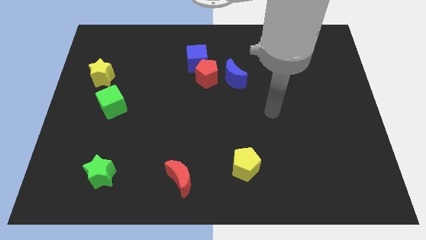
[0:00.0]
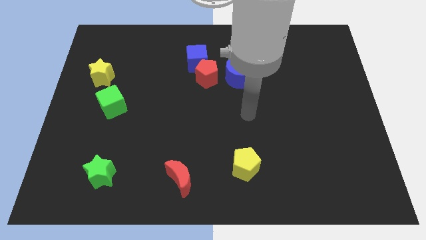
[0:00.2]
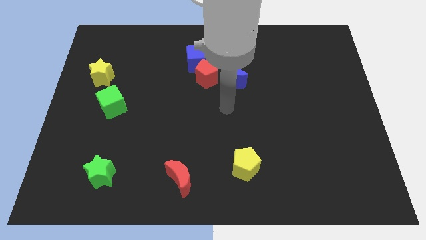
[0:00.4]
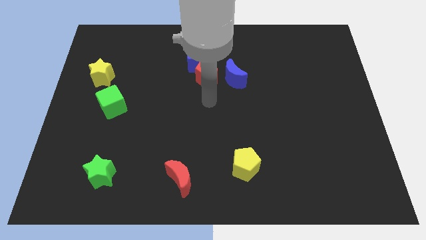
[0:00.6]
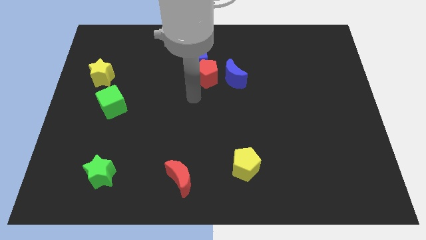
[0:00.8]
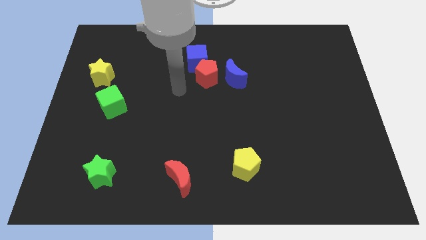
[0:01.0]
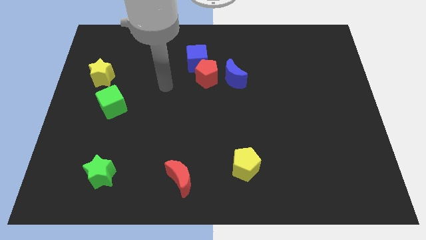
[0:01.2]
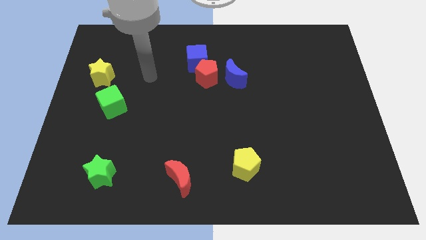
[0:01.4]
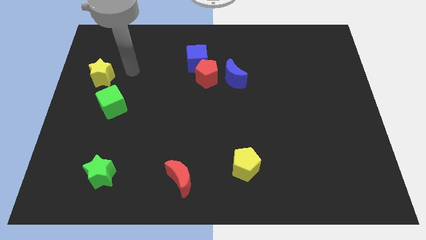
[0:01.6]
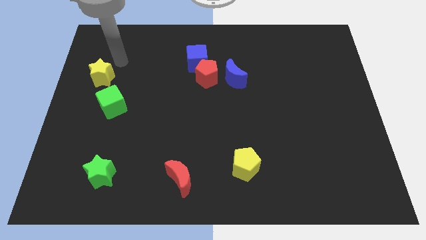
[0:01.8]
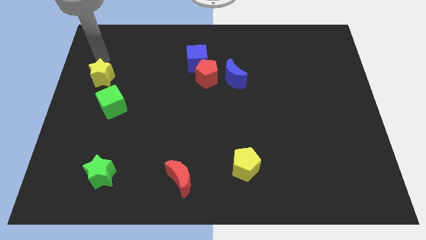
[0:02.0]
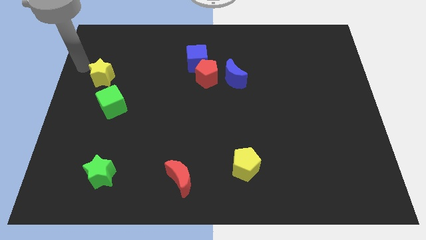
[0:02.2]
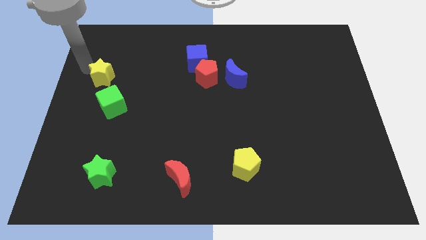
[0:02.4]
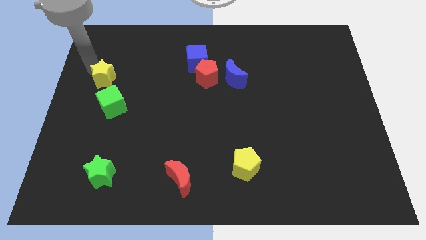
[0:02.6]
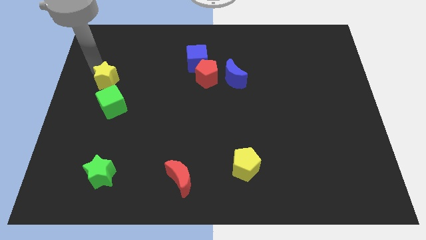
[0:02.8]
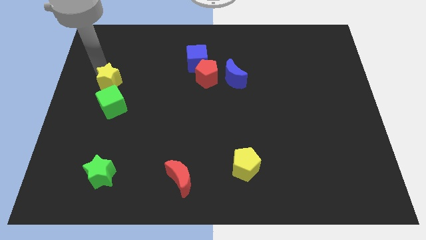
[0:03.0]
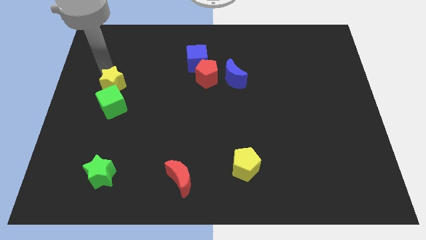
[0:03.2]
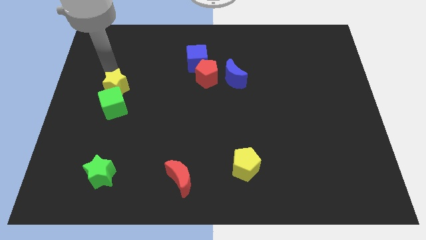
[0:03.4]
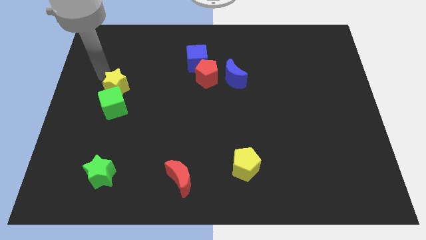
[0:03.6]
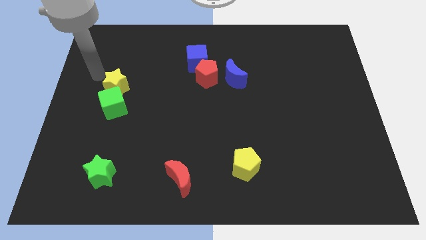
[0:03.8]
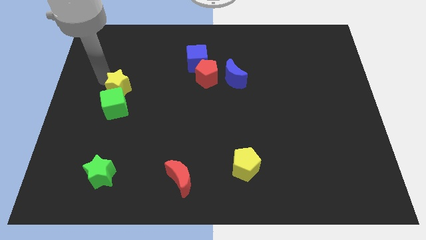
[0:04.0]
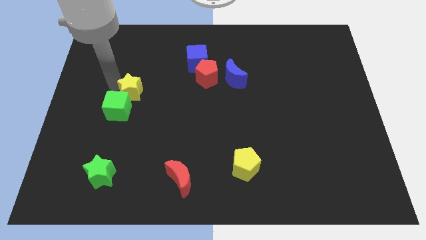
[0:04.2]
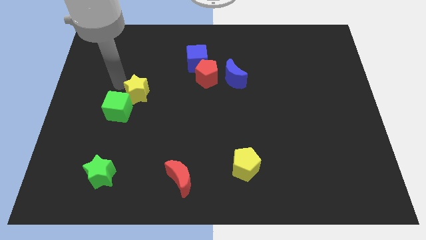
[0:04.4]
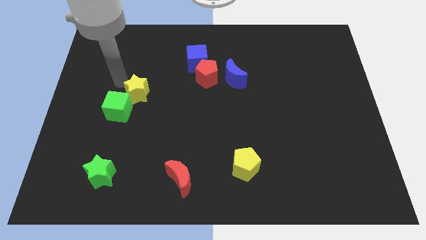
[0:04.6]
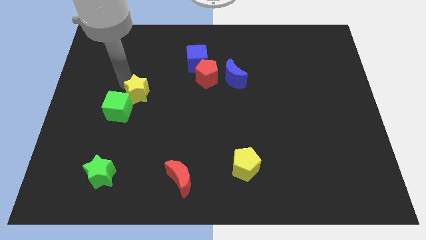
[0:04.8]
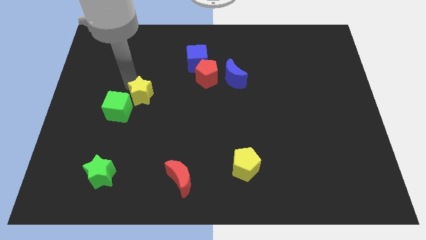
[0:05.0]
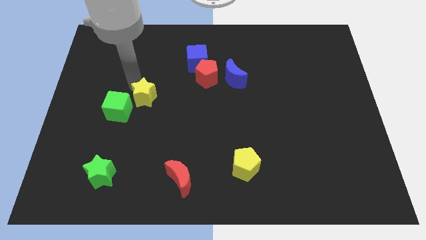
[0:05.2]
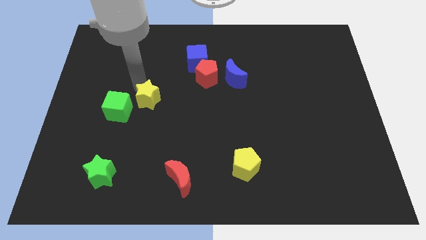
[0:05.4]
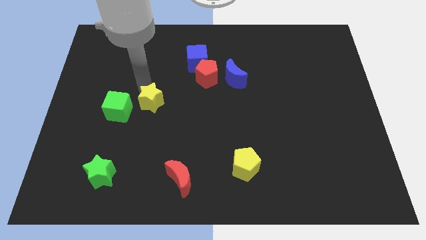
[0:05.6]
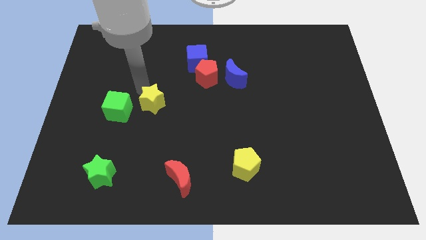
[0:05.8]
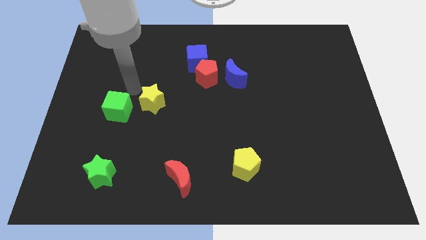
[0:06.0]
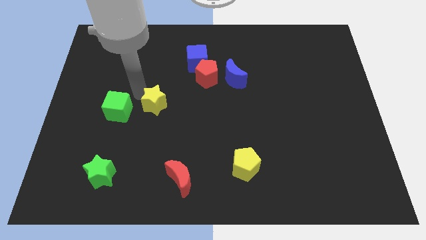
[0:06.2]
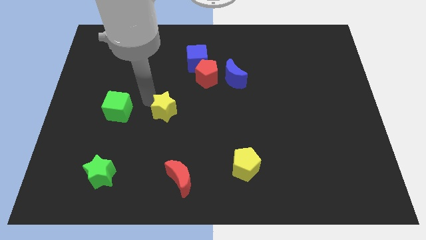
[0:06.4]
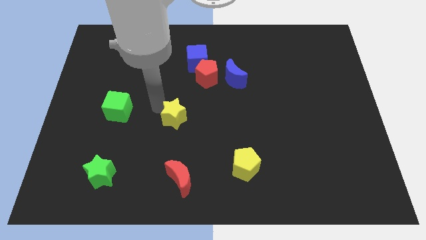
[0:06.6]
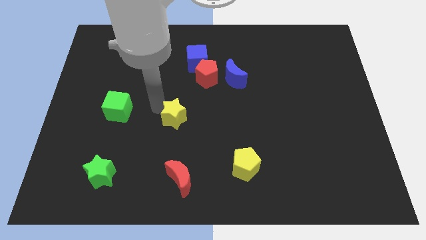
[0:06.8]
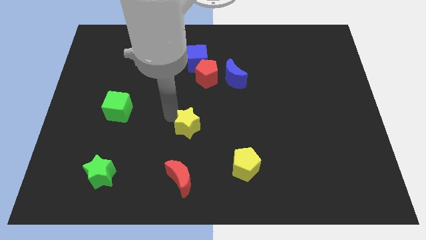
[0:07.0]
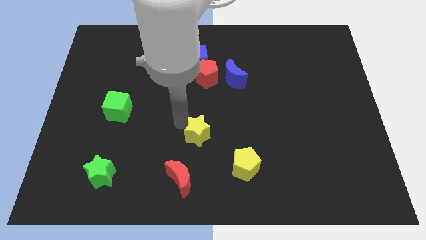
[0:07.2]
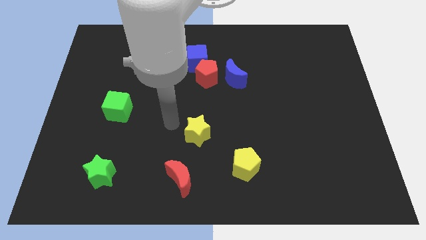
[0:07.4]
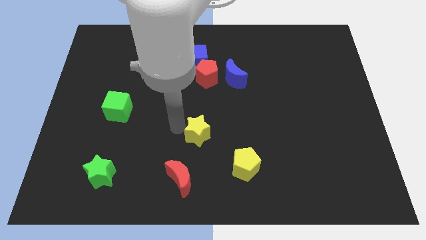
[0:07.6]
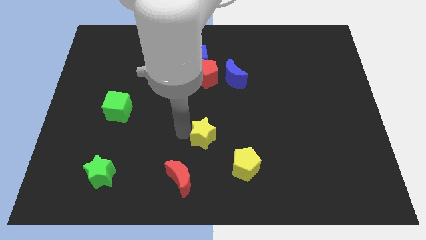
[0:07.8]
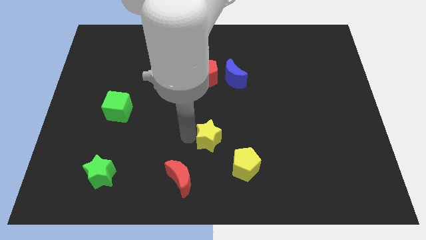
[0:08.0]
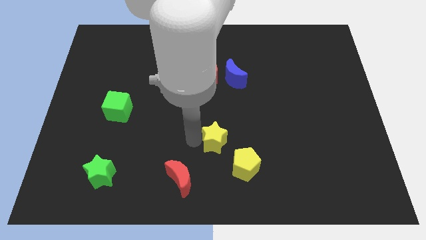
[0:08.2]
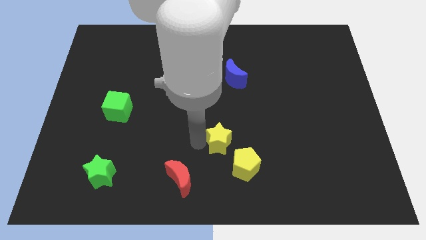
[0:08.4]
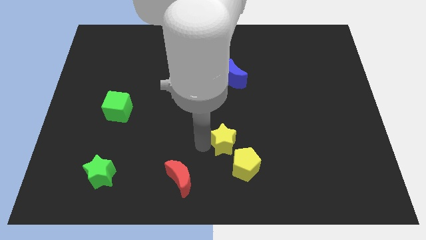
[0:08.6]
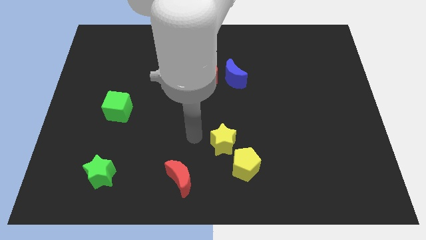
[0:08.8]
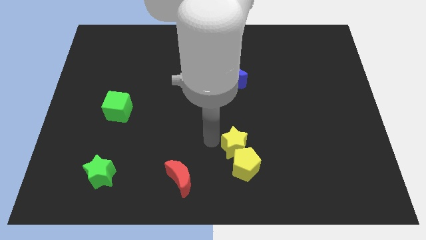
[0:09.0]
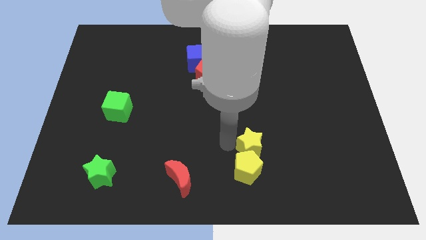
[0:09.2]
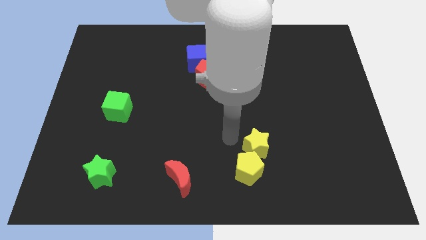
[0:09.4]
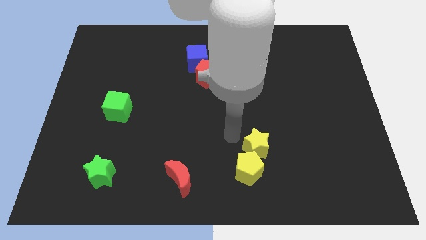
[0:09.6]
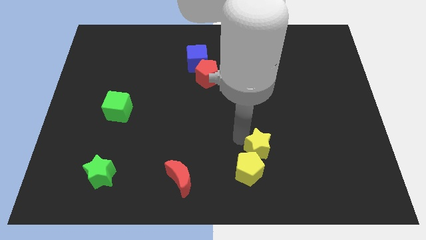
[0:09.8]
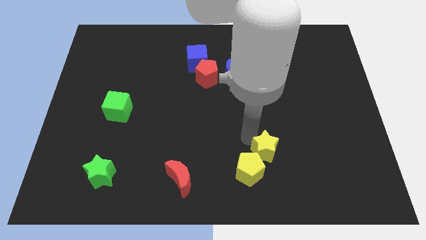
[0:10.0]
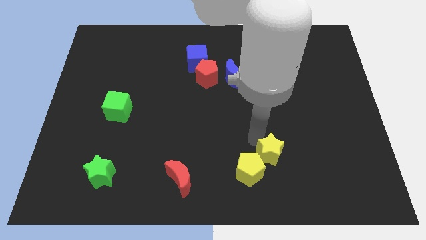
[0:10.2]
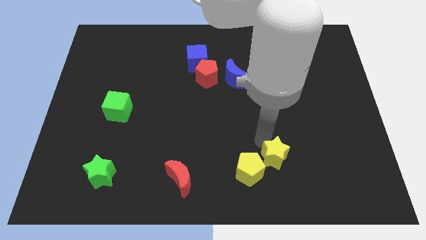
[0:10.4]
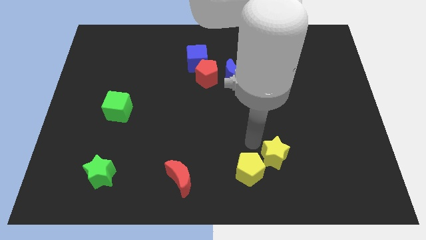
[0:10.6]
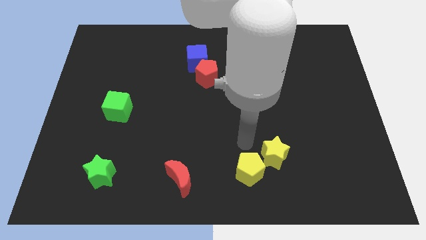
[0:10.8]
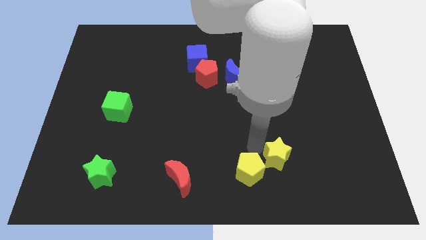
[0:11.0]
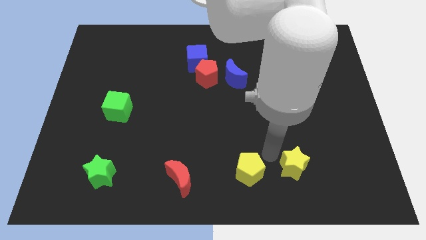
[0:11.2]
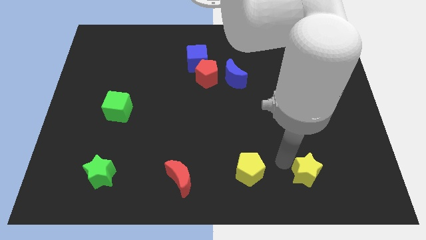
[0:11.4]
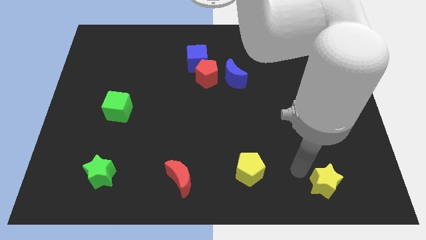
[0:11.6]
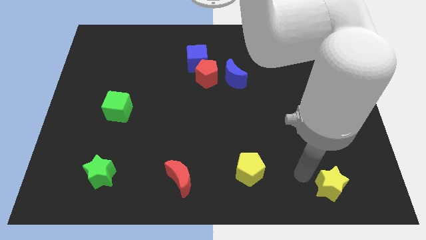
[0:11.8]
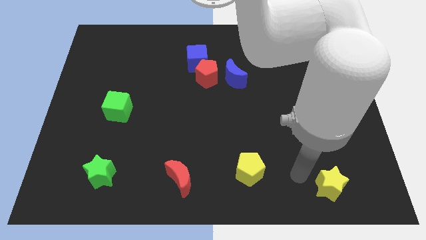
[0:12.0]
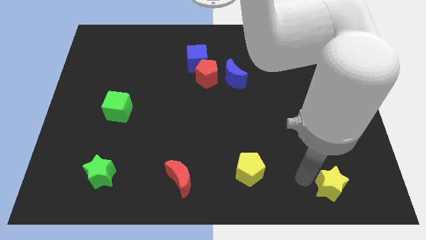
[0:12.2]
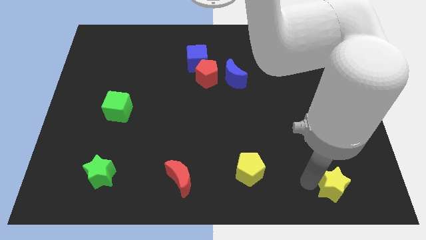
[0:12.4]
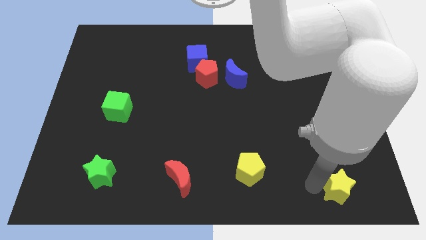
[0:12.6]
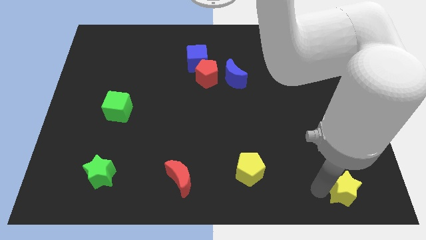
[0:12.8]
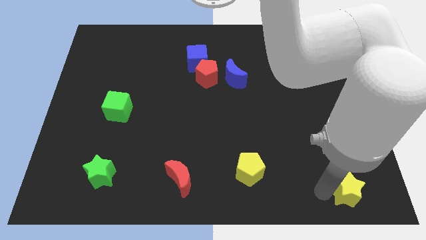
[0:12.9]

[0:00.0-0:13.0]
push the yellow star to the bottom right corner
